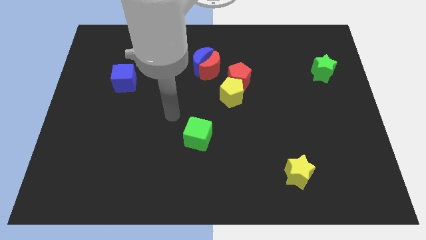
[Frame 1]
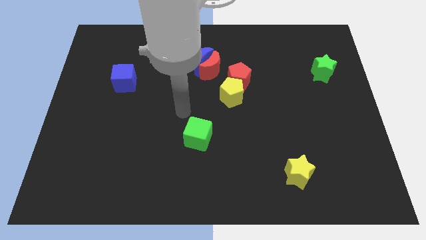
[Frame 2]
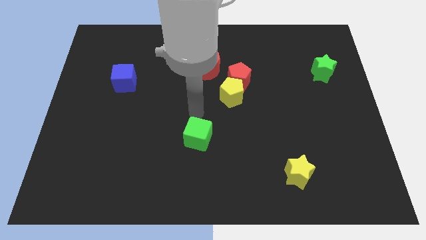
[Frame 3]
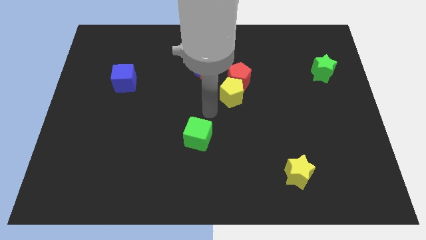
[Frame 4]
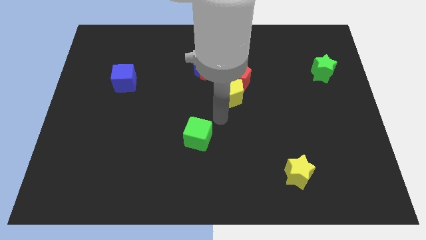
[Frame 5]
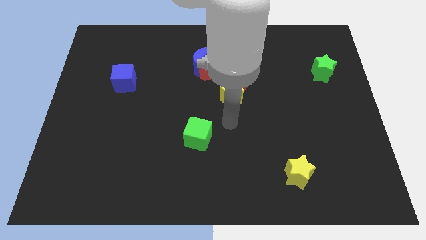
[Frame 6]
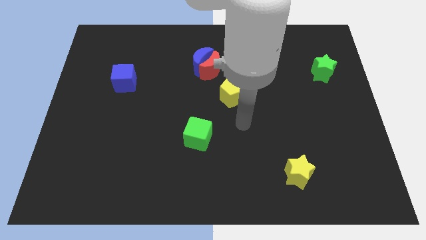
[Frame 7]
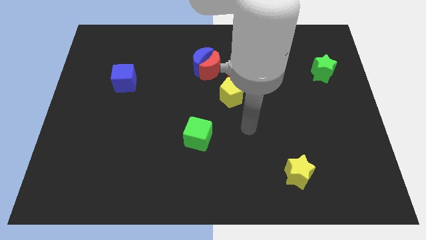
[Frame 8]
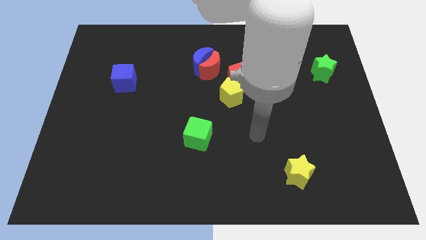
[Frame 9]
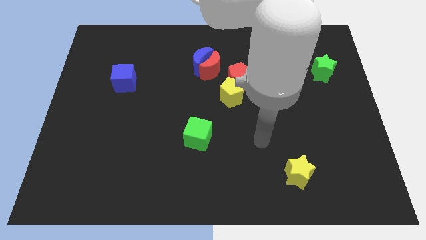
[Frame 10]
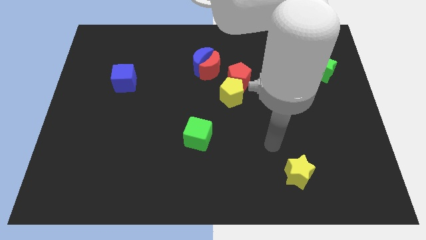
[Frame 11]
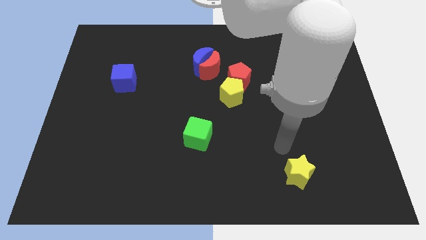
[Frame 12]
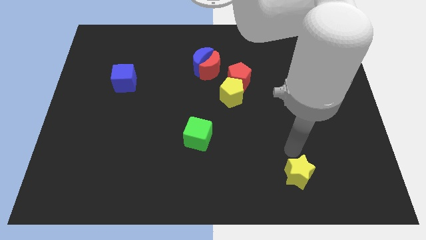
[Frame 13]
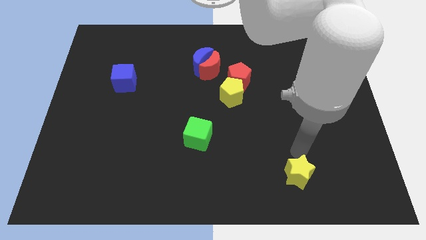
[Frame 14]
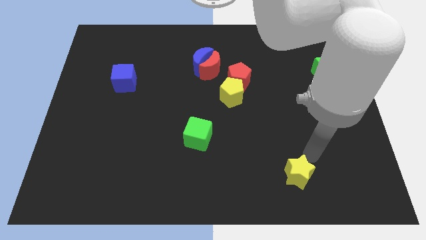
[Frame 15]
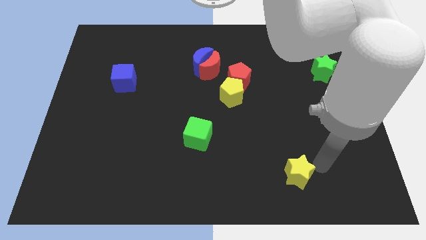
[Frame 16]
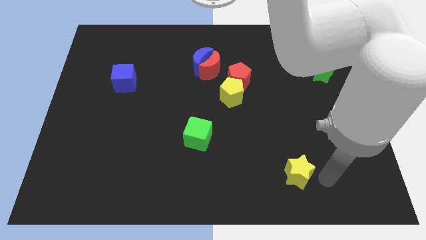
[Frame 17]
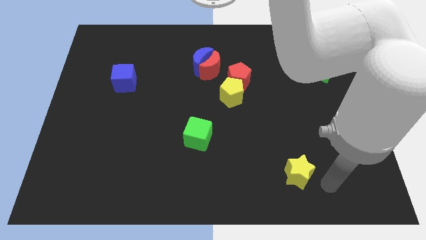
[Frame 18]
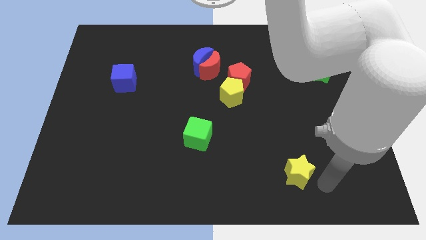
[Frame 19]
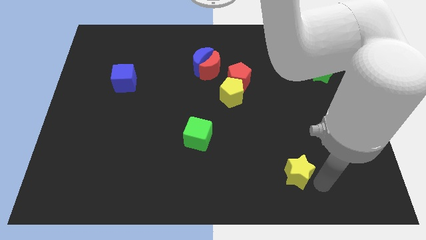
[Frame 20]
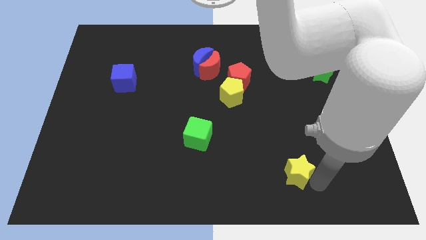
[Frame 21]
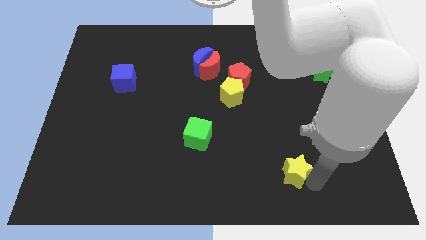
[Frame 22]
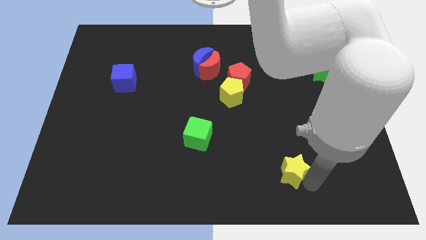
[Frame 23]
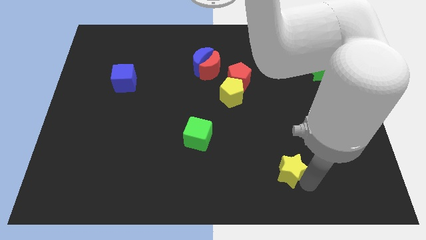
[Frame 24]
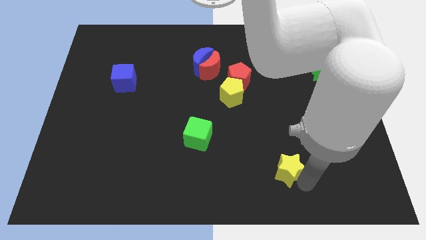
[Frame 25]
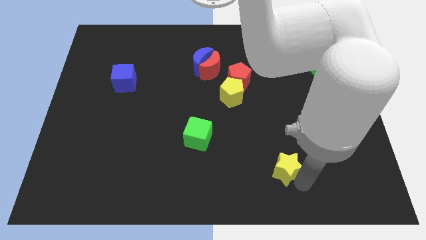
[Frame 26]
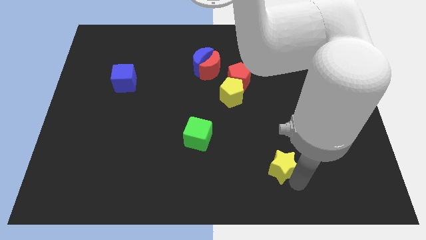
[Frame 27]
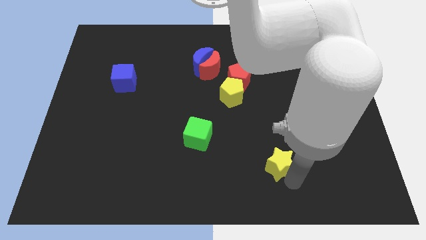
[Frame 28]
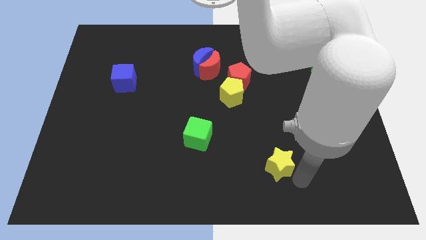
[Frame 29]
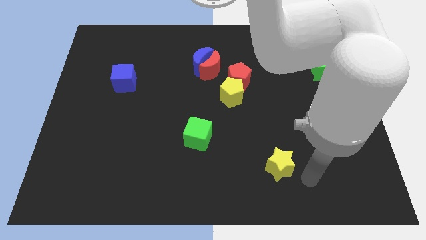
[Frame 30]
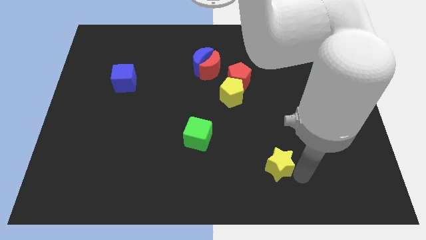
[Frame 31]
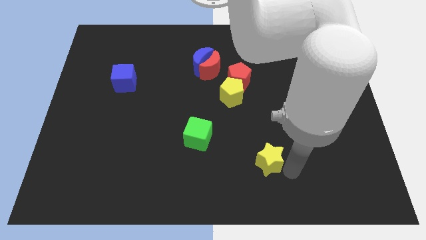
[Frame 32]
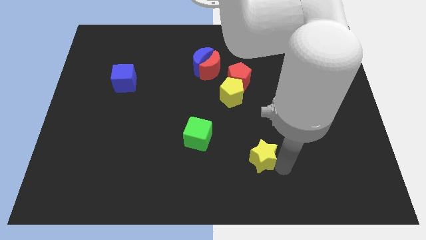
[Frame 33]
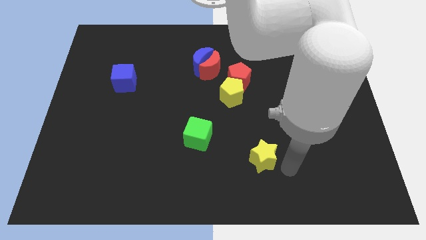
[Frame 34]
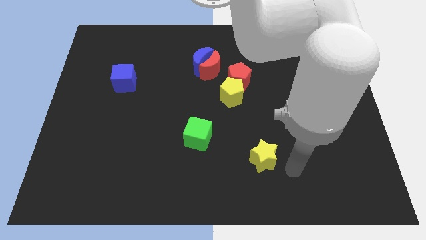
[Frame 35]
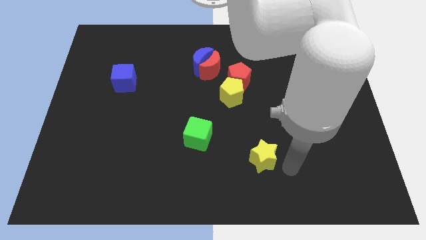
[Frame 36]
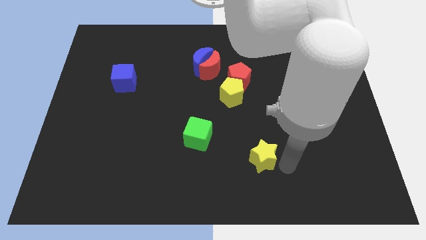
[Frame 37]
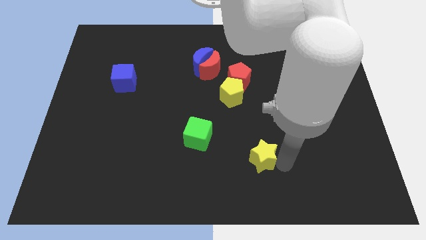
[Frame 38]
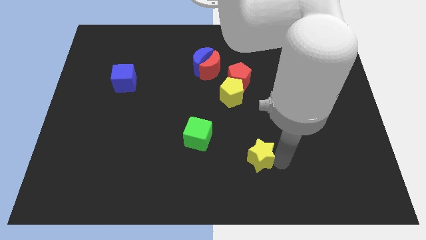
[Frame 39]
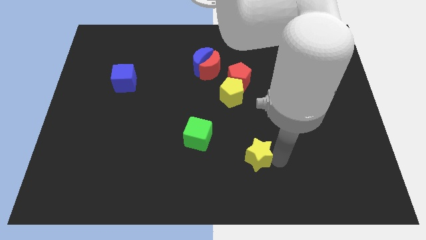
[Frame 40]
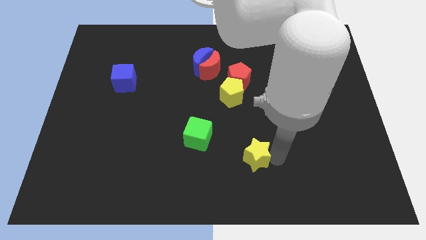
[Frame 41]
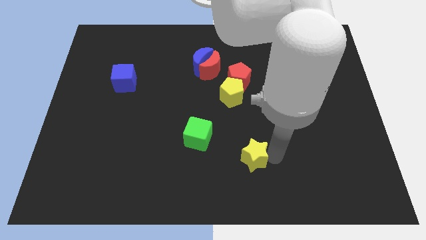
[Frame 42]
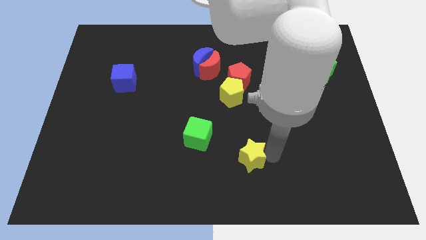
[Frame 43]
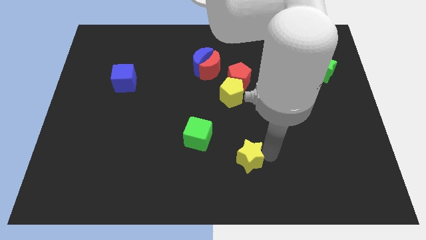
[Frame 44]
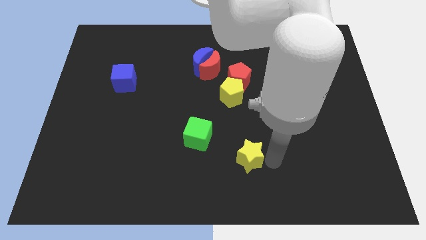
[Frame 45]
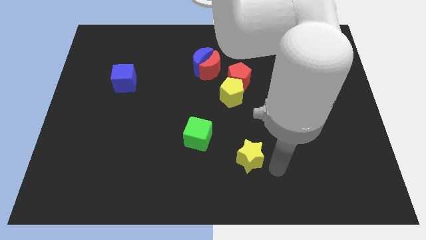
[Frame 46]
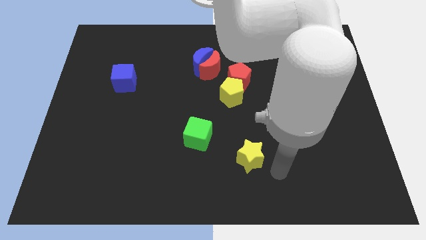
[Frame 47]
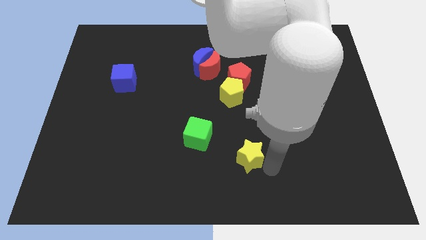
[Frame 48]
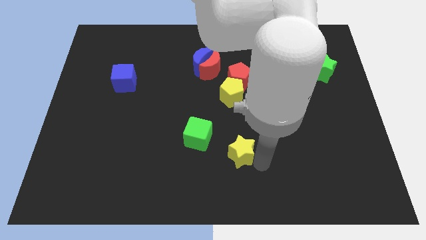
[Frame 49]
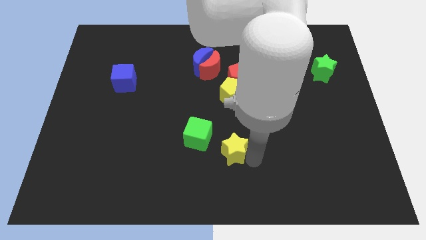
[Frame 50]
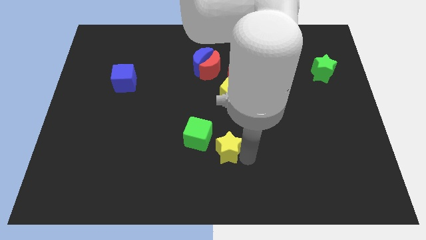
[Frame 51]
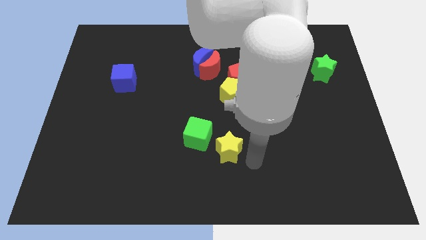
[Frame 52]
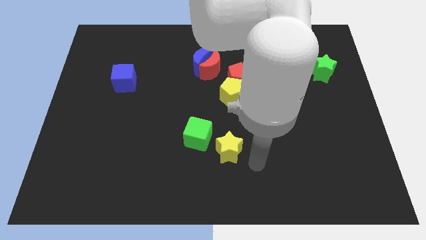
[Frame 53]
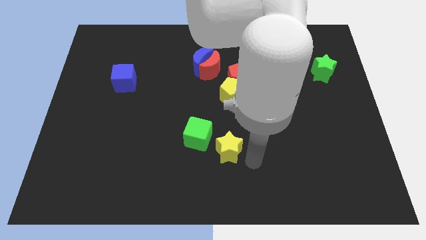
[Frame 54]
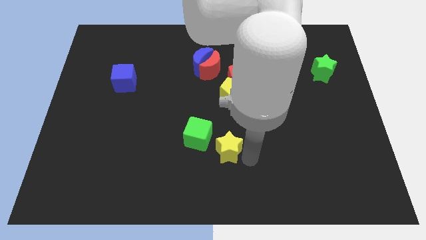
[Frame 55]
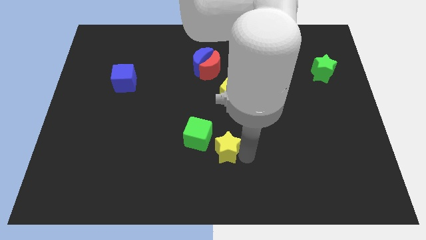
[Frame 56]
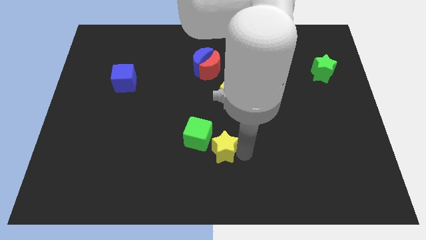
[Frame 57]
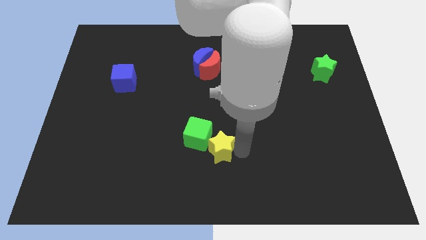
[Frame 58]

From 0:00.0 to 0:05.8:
move the yellow star towards the green cube

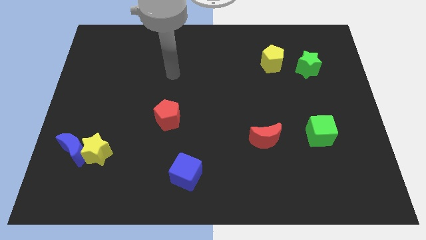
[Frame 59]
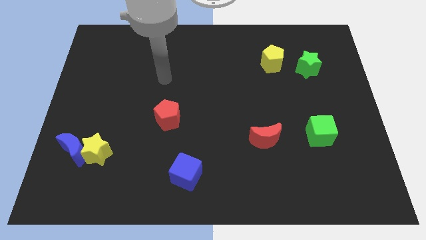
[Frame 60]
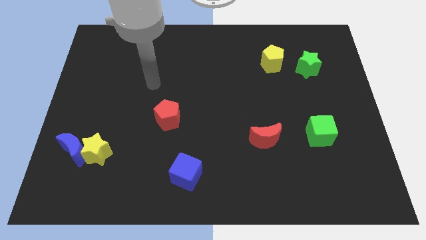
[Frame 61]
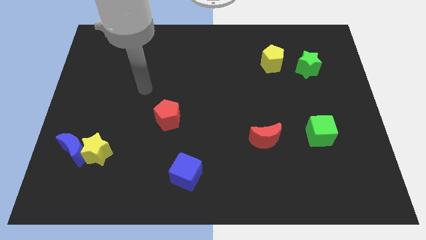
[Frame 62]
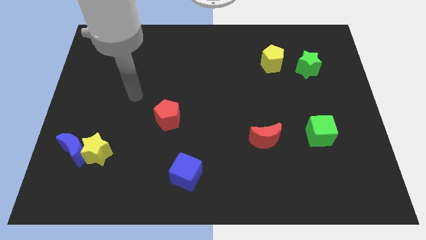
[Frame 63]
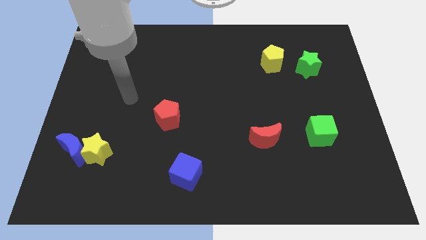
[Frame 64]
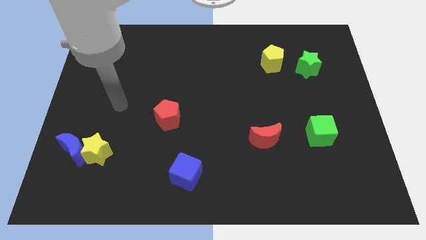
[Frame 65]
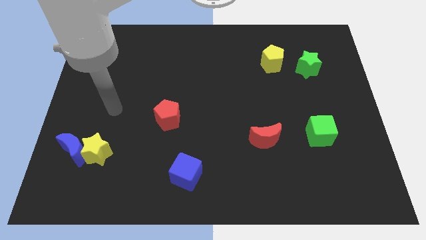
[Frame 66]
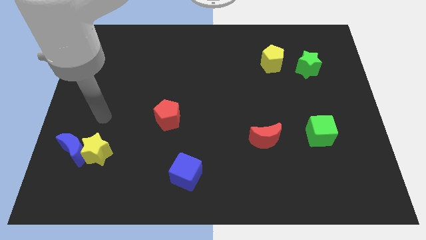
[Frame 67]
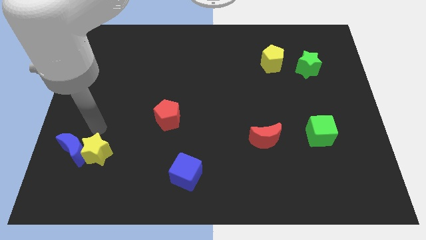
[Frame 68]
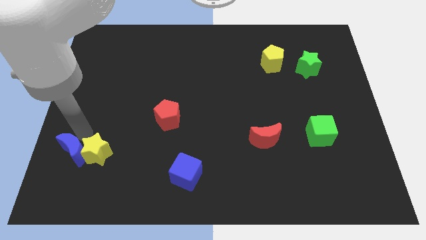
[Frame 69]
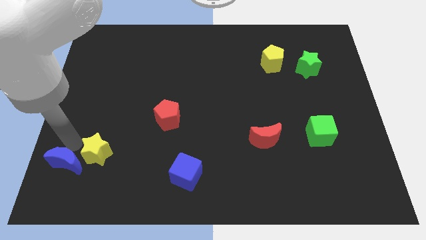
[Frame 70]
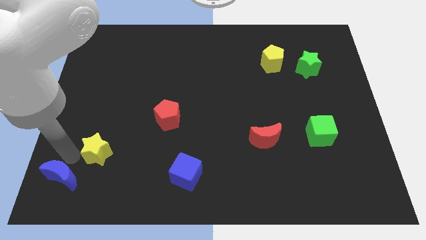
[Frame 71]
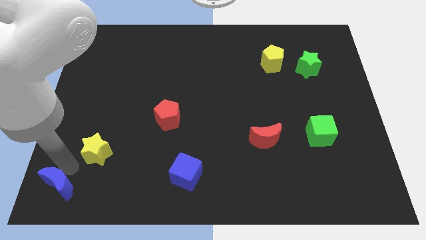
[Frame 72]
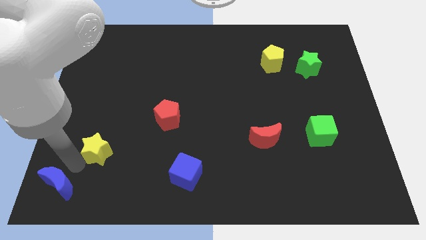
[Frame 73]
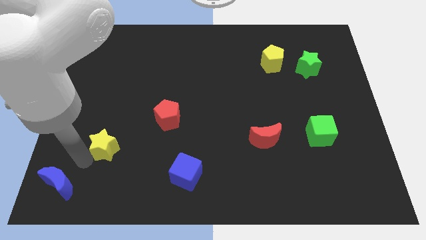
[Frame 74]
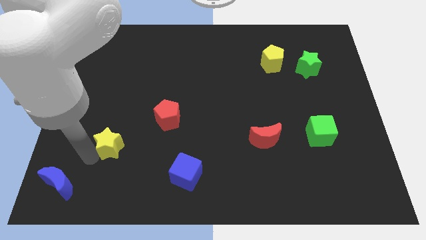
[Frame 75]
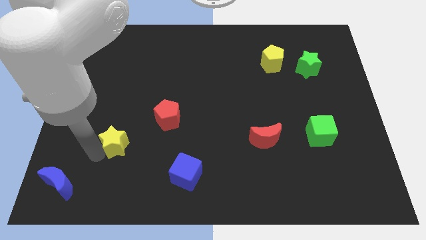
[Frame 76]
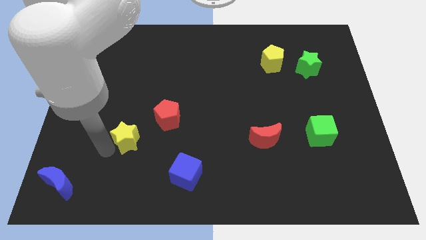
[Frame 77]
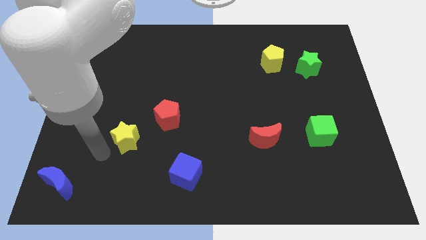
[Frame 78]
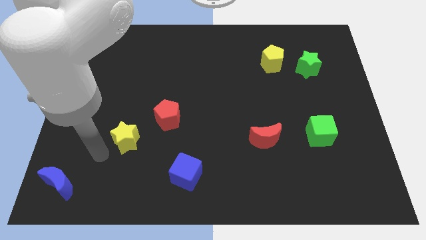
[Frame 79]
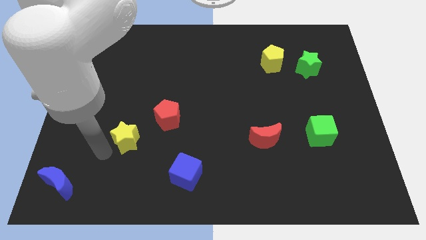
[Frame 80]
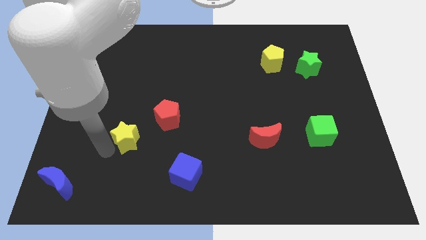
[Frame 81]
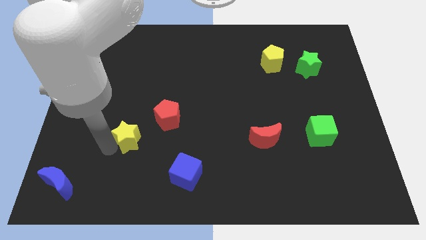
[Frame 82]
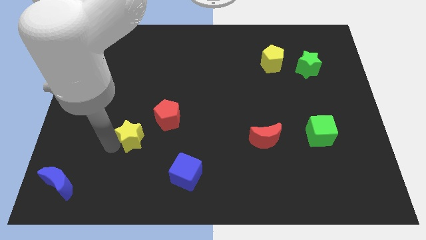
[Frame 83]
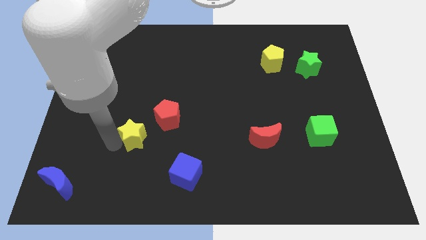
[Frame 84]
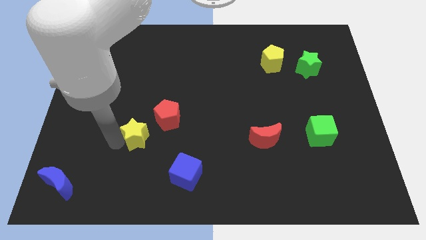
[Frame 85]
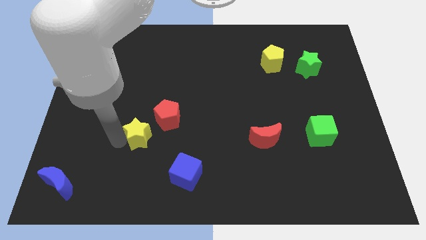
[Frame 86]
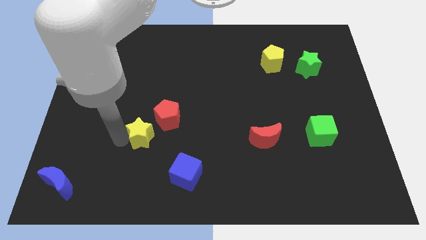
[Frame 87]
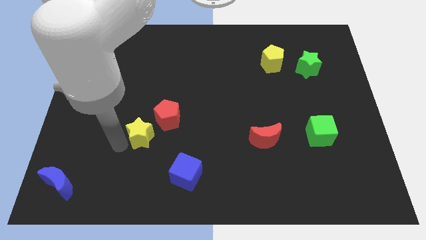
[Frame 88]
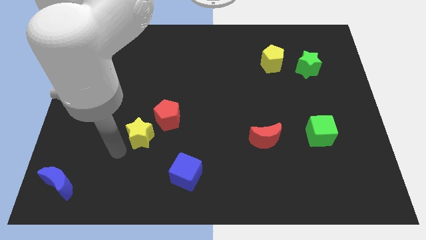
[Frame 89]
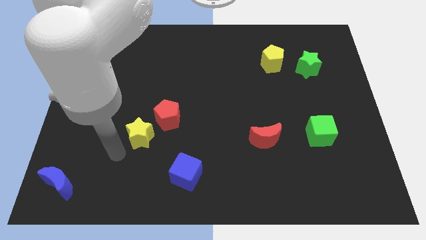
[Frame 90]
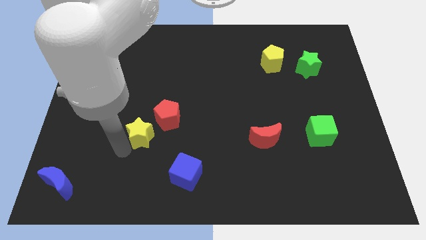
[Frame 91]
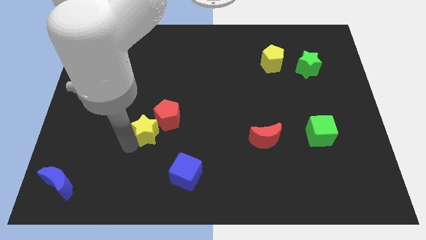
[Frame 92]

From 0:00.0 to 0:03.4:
put the yellow star close to the red pentagon
